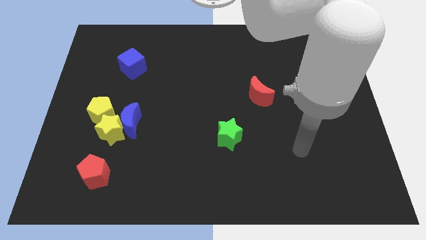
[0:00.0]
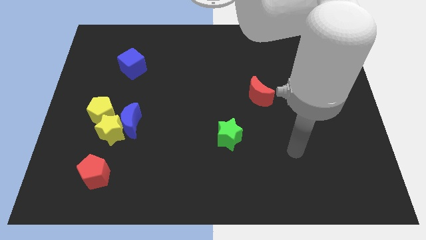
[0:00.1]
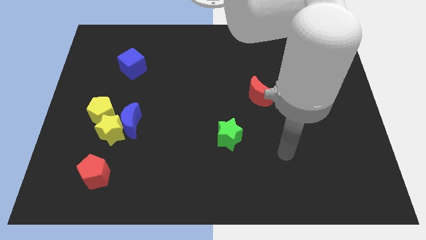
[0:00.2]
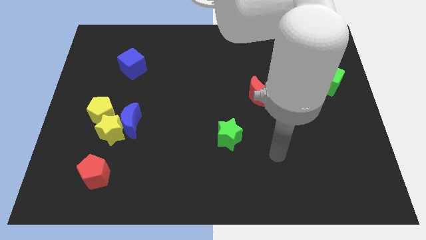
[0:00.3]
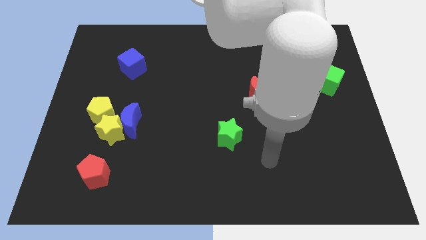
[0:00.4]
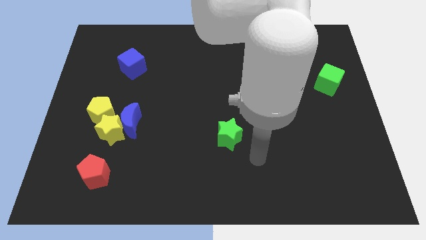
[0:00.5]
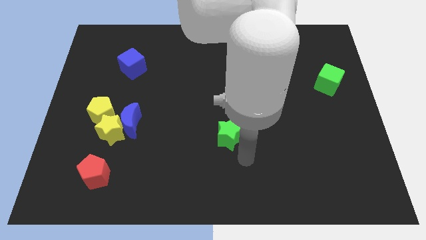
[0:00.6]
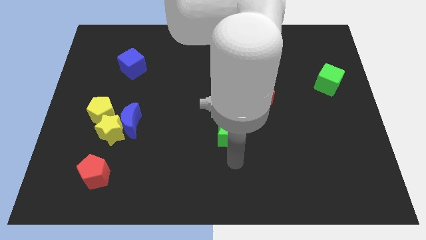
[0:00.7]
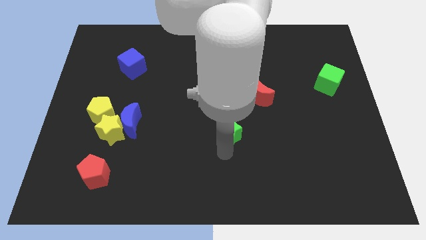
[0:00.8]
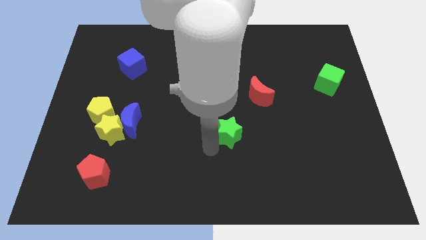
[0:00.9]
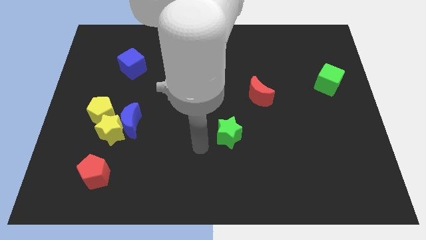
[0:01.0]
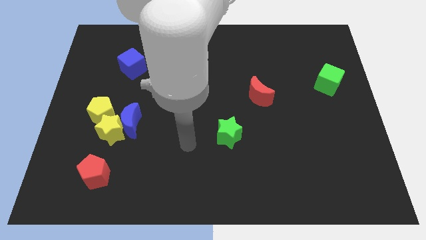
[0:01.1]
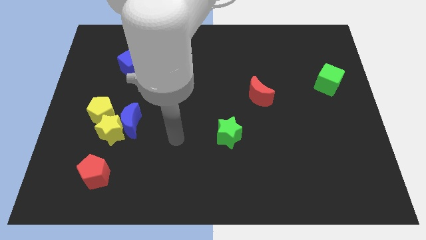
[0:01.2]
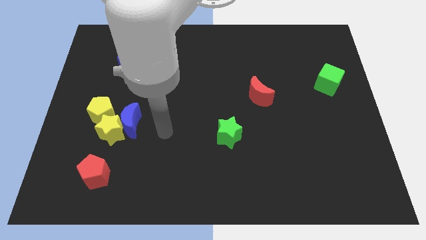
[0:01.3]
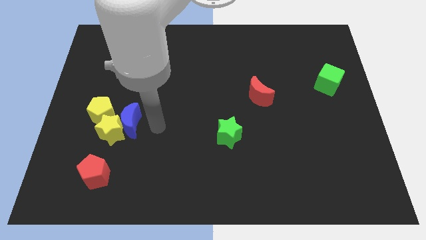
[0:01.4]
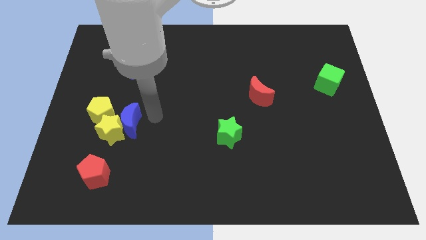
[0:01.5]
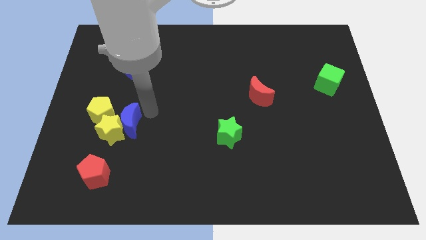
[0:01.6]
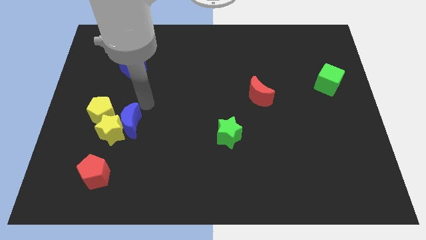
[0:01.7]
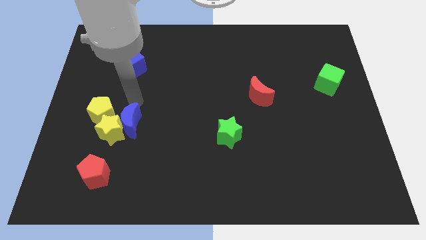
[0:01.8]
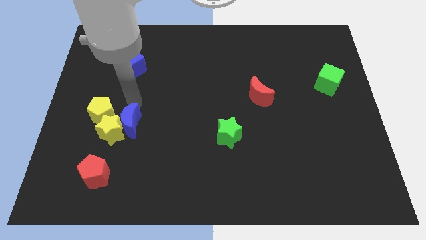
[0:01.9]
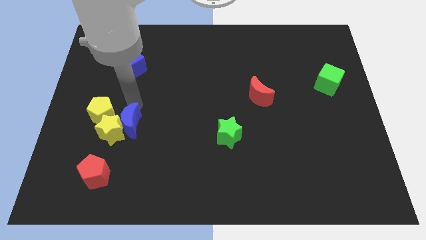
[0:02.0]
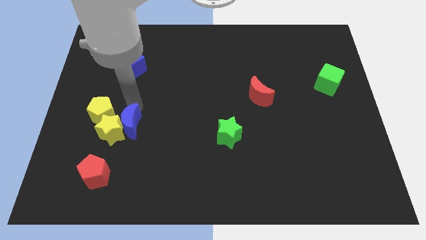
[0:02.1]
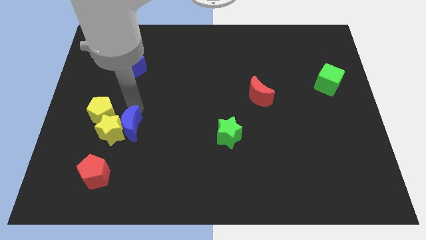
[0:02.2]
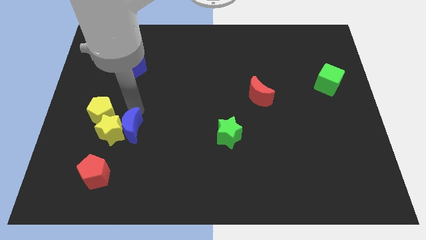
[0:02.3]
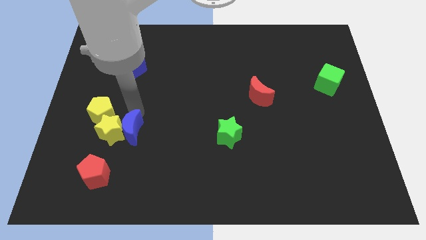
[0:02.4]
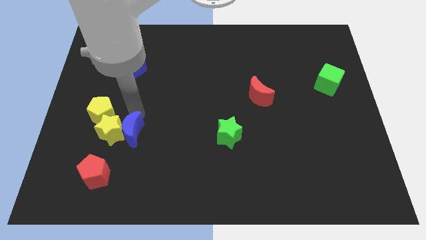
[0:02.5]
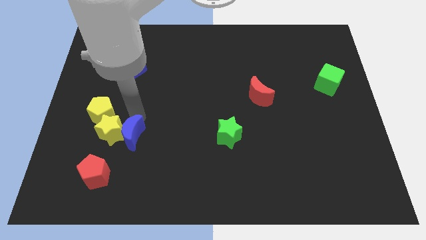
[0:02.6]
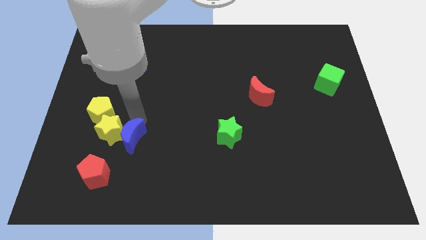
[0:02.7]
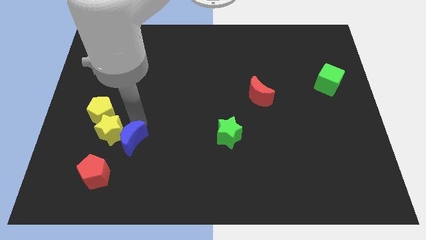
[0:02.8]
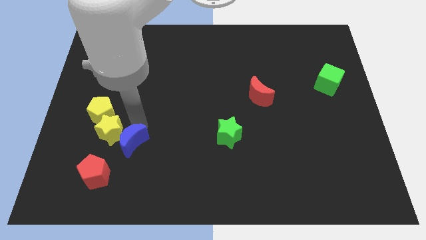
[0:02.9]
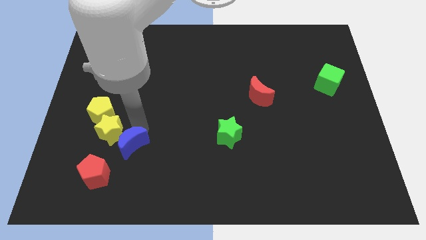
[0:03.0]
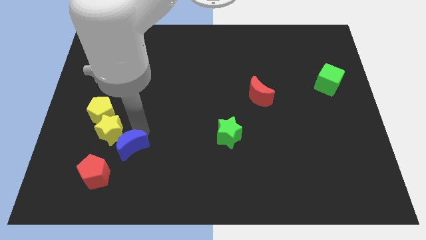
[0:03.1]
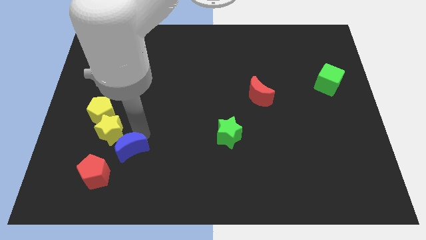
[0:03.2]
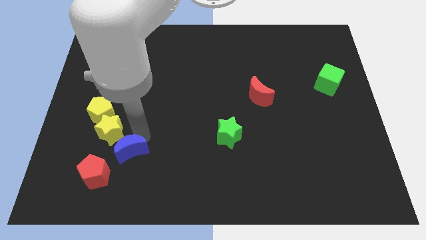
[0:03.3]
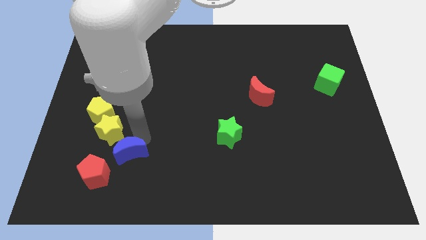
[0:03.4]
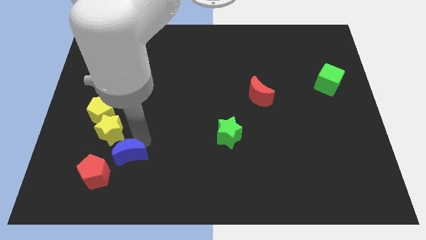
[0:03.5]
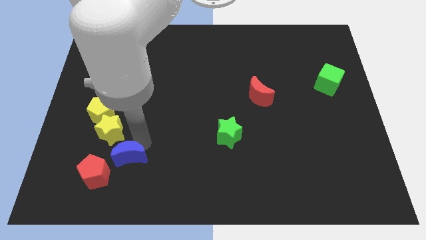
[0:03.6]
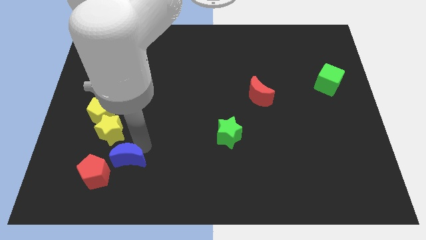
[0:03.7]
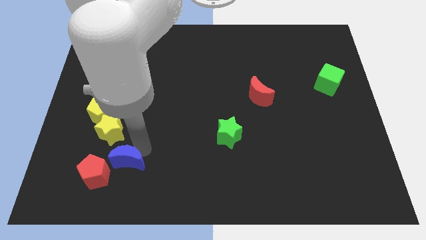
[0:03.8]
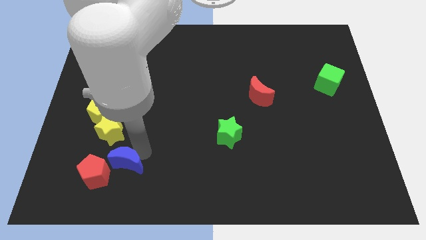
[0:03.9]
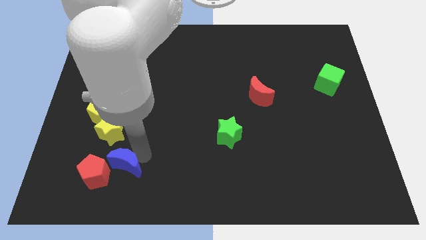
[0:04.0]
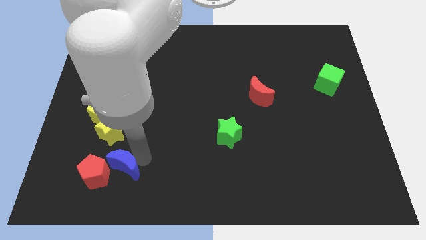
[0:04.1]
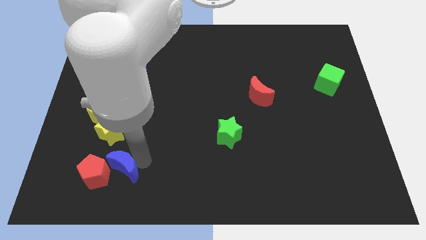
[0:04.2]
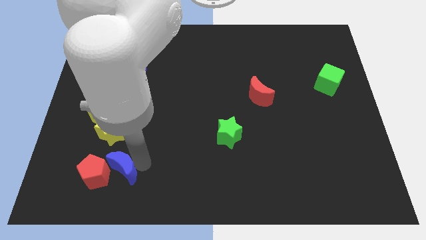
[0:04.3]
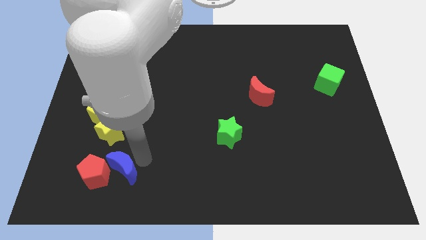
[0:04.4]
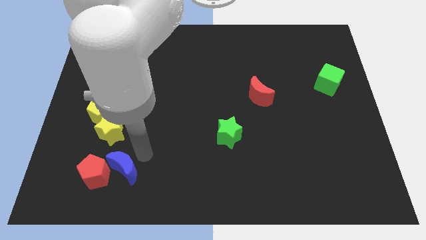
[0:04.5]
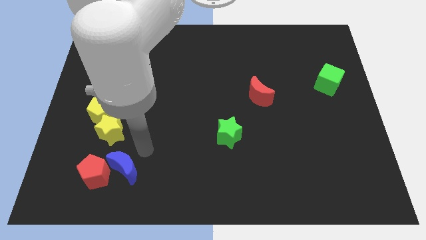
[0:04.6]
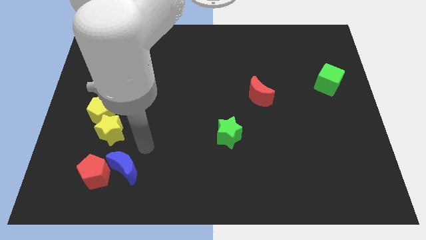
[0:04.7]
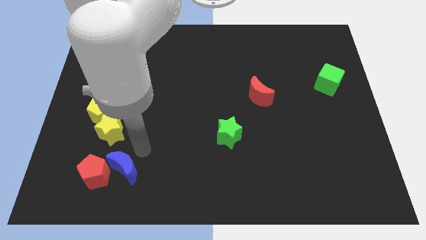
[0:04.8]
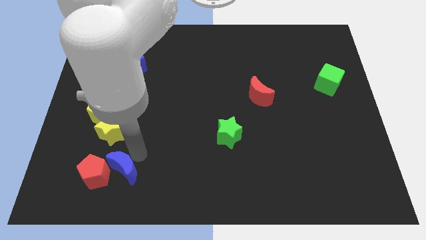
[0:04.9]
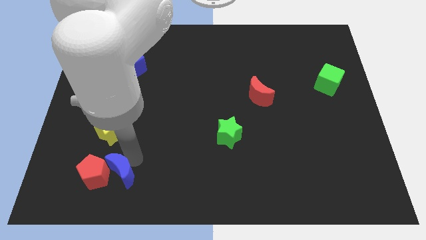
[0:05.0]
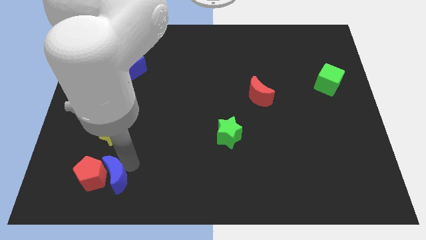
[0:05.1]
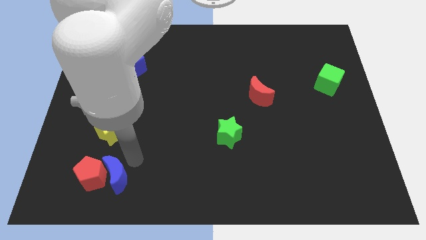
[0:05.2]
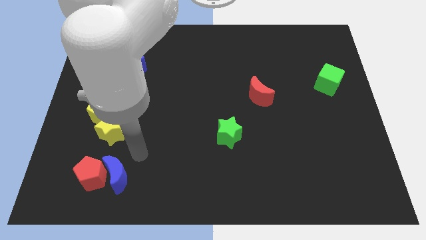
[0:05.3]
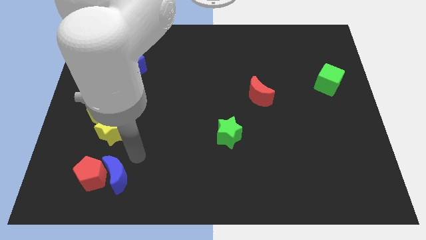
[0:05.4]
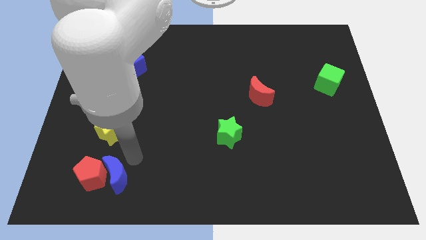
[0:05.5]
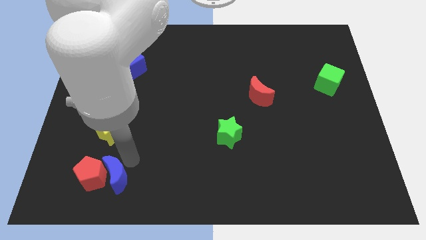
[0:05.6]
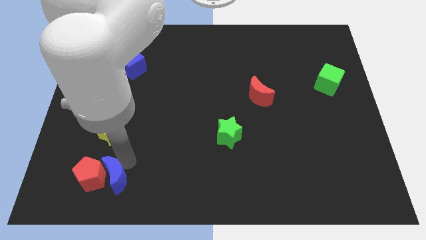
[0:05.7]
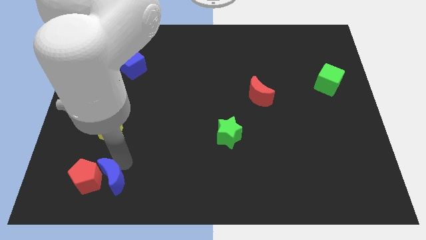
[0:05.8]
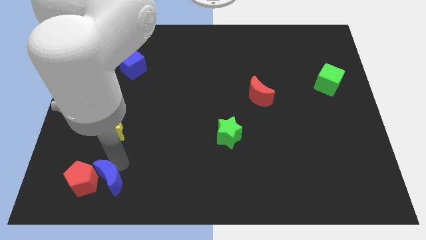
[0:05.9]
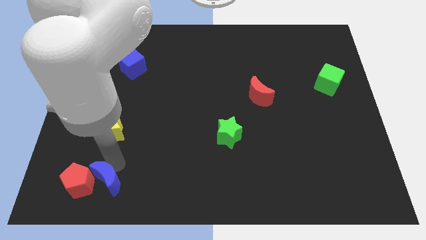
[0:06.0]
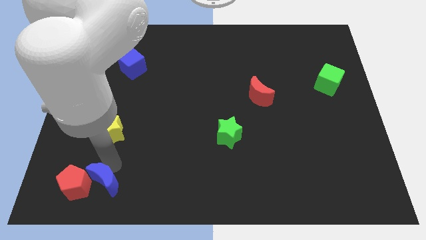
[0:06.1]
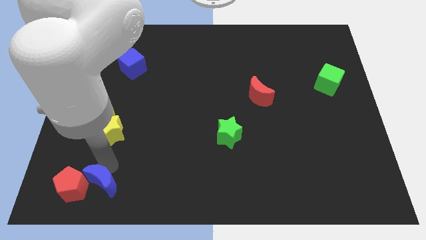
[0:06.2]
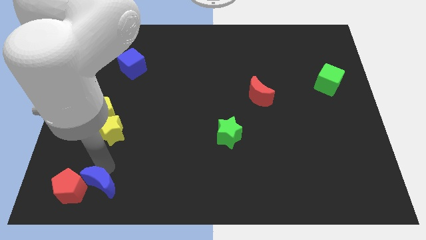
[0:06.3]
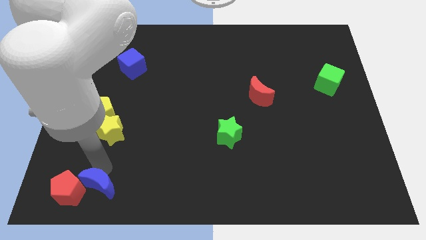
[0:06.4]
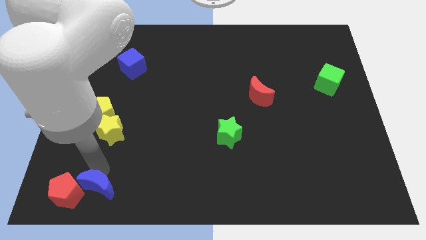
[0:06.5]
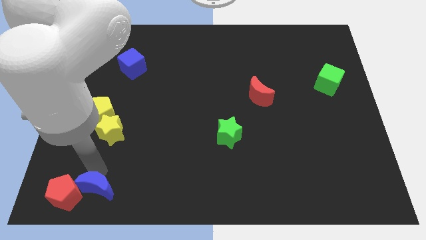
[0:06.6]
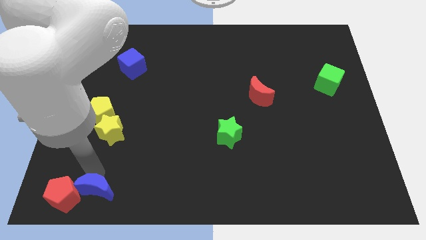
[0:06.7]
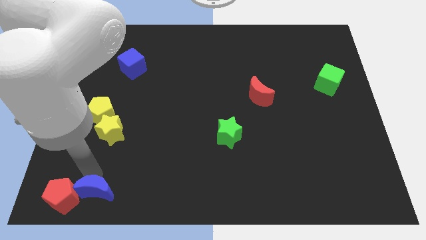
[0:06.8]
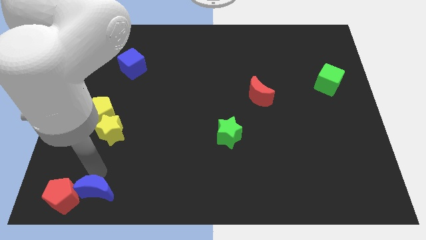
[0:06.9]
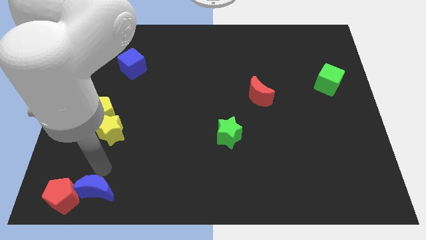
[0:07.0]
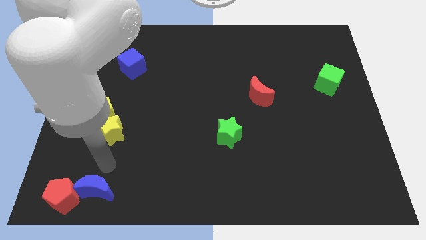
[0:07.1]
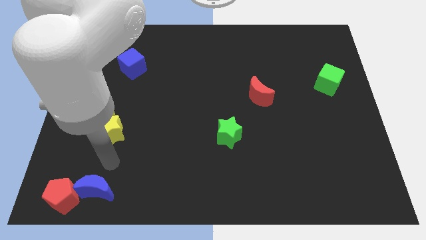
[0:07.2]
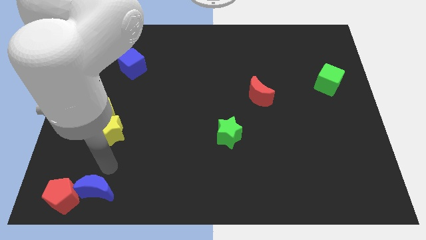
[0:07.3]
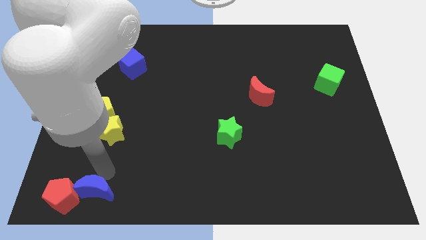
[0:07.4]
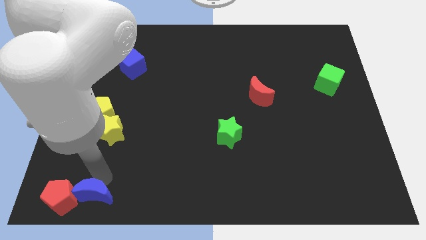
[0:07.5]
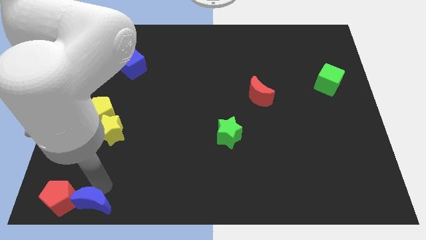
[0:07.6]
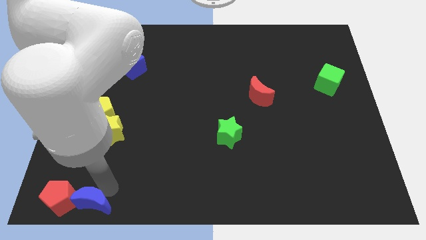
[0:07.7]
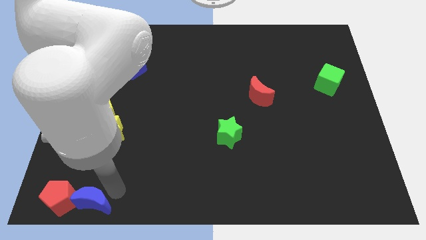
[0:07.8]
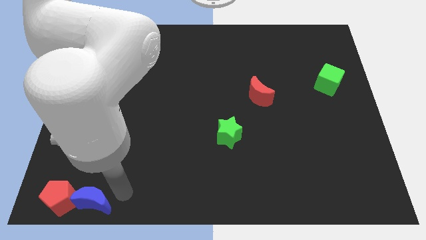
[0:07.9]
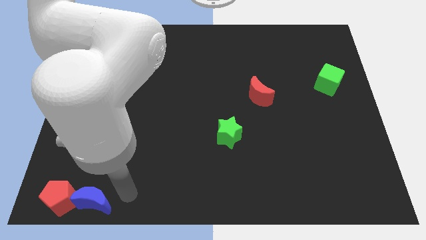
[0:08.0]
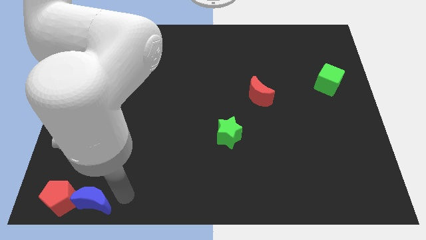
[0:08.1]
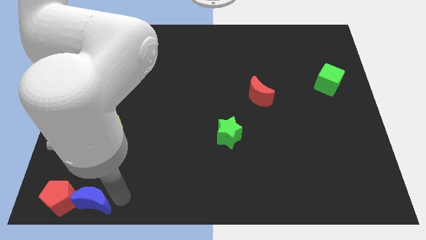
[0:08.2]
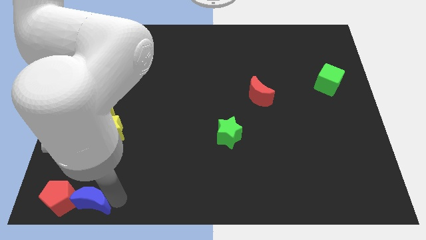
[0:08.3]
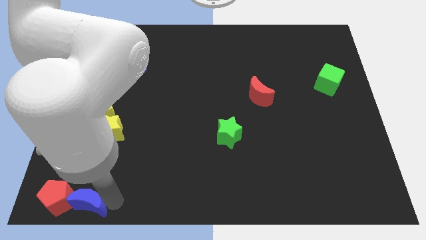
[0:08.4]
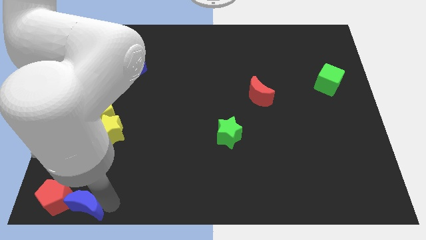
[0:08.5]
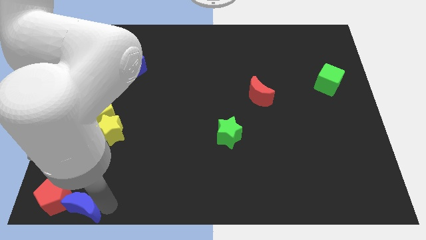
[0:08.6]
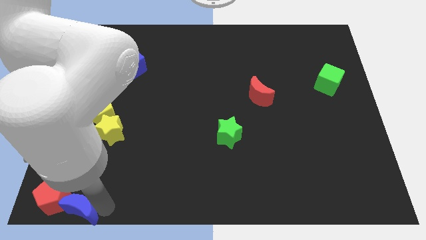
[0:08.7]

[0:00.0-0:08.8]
slide the blue moon to the bottom left of the board
